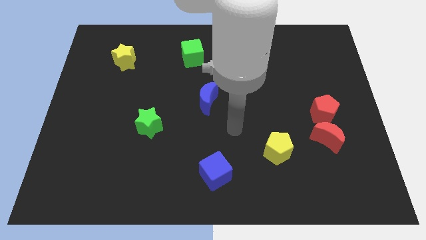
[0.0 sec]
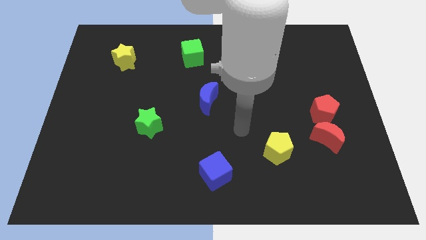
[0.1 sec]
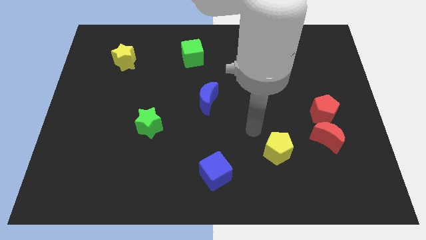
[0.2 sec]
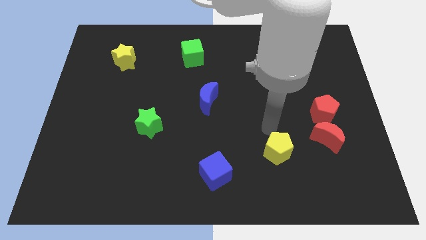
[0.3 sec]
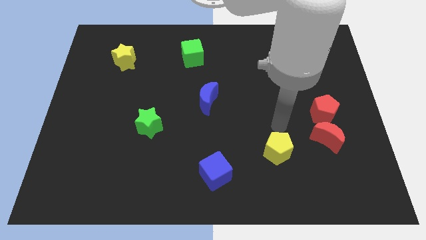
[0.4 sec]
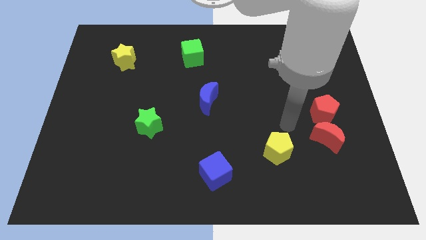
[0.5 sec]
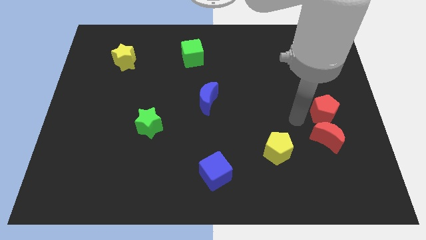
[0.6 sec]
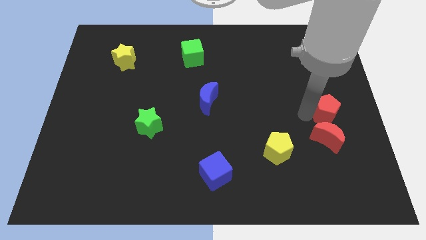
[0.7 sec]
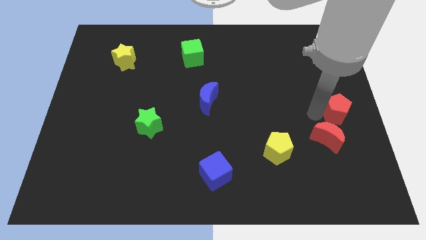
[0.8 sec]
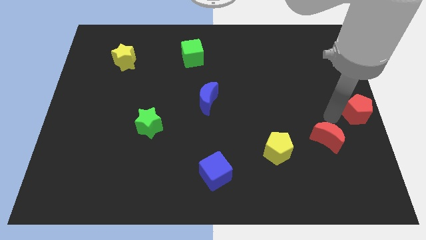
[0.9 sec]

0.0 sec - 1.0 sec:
move the red moon away from the red pentagon

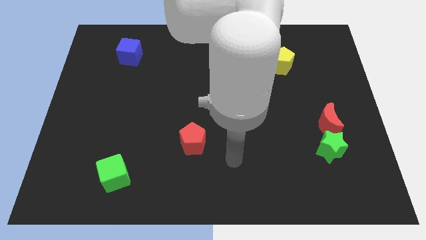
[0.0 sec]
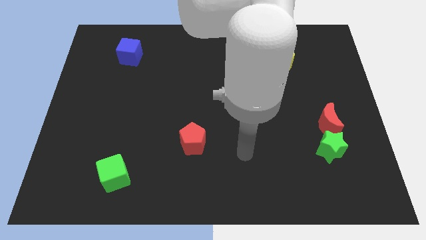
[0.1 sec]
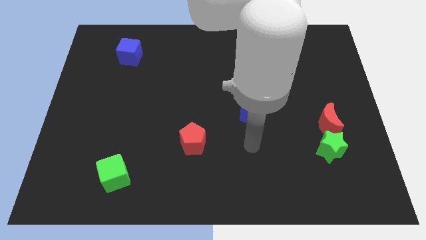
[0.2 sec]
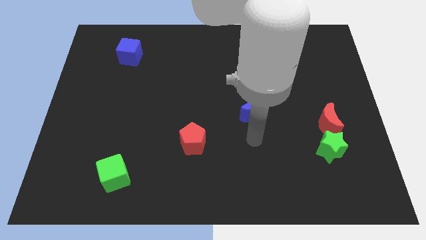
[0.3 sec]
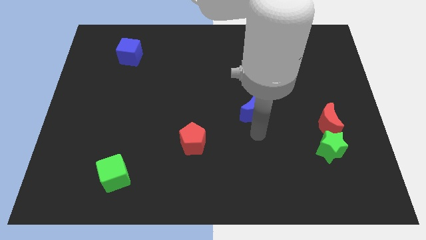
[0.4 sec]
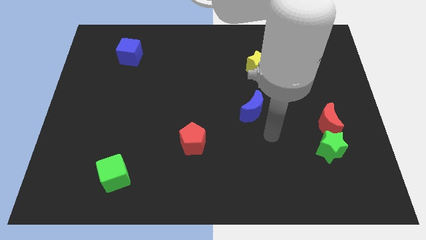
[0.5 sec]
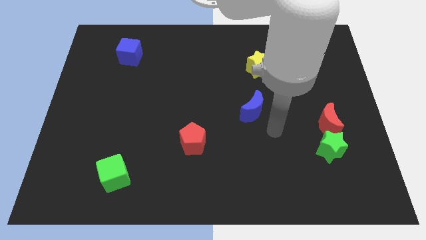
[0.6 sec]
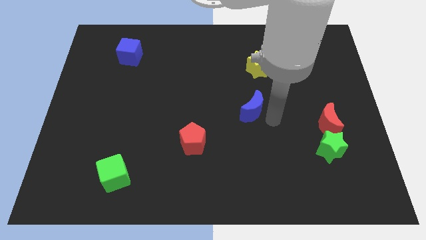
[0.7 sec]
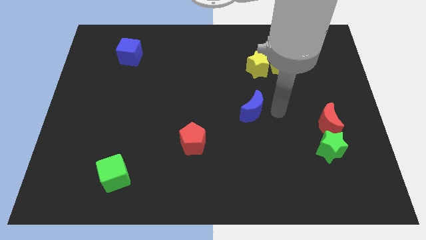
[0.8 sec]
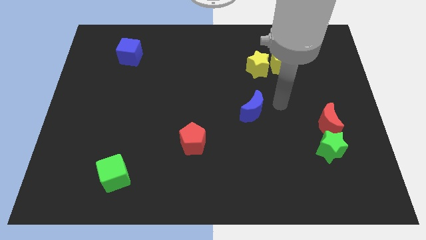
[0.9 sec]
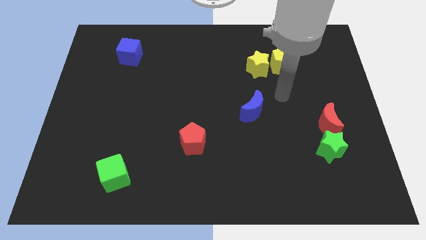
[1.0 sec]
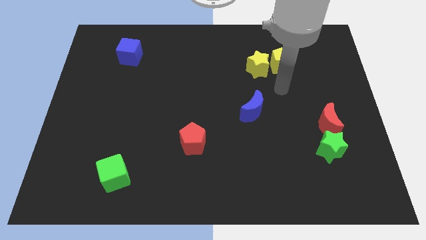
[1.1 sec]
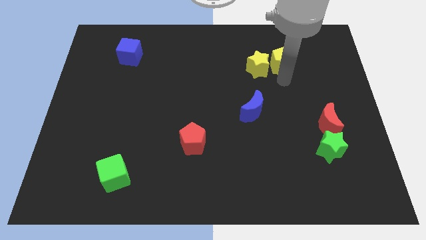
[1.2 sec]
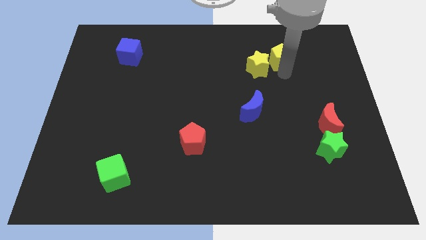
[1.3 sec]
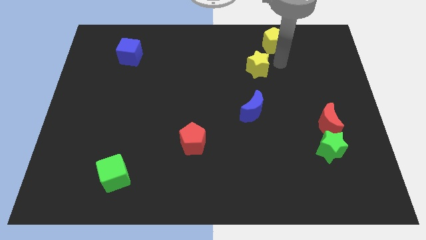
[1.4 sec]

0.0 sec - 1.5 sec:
separate the yellow star from the yellow pentagon

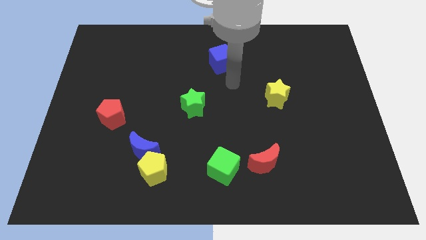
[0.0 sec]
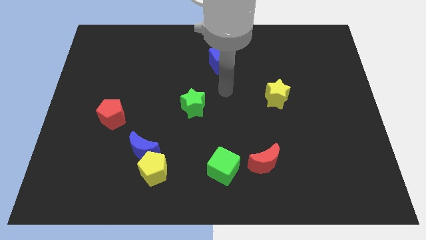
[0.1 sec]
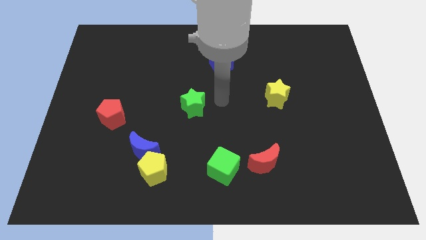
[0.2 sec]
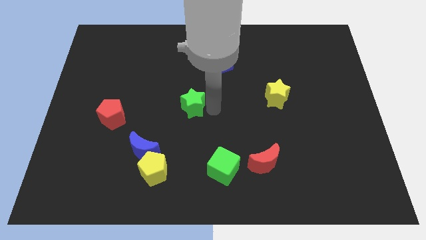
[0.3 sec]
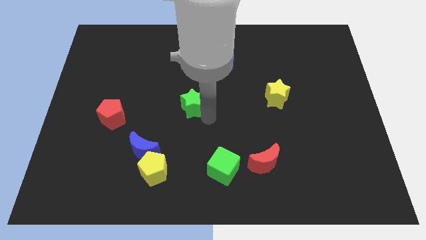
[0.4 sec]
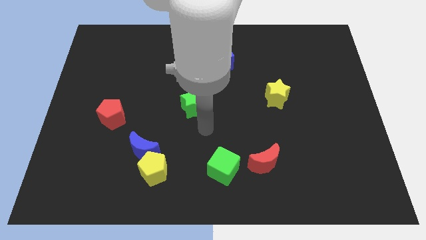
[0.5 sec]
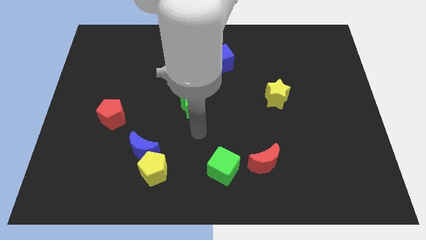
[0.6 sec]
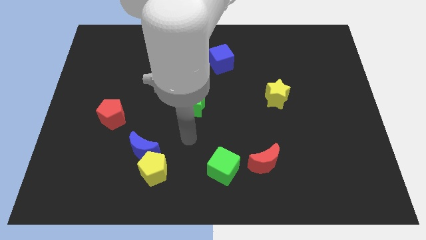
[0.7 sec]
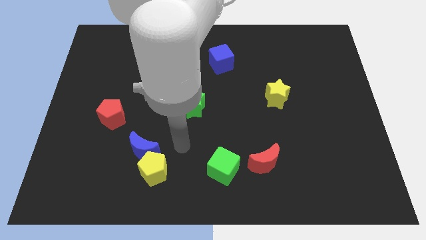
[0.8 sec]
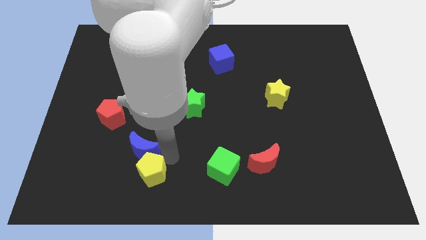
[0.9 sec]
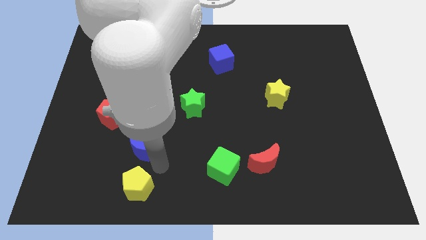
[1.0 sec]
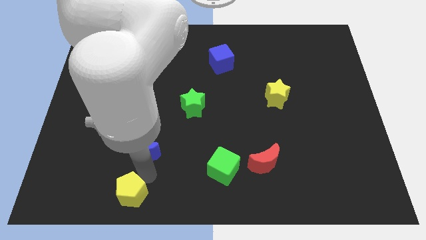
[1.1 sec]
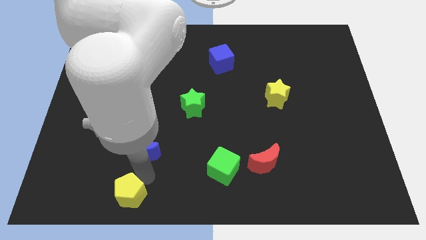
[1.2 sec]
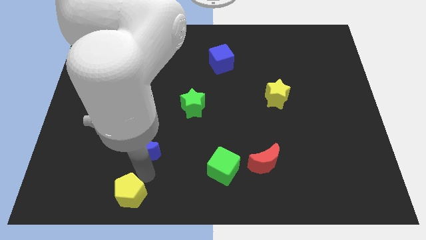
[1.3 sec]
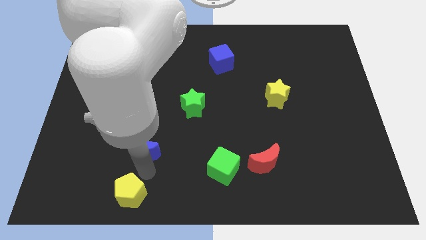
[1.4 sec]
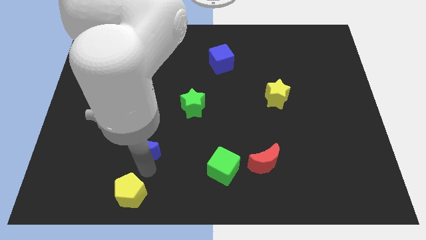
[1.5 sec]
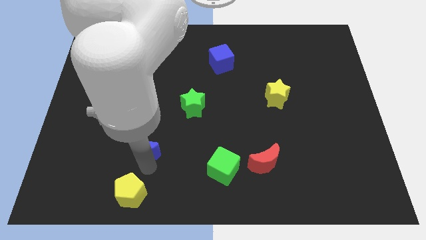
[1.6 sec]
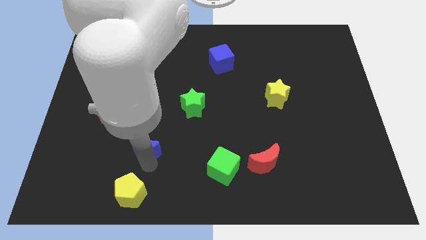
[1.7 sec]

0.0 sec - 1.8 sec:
move the blue moon away from the yellow pentagon

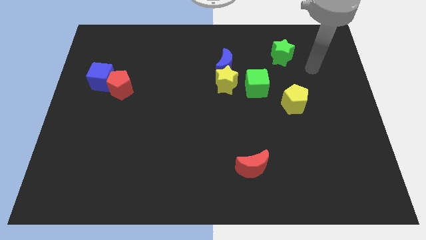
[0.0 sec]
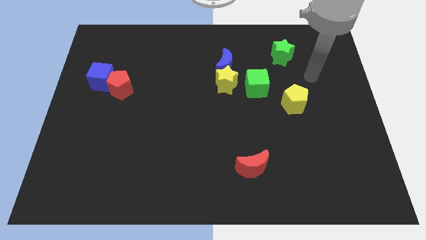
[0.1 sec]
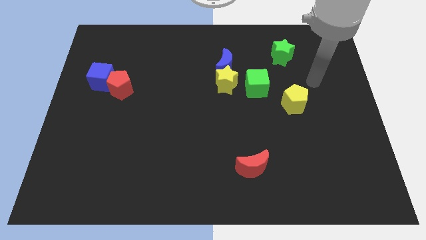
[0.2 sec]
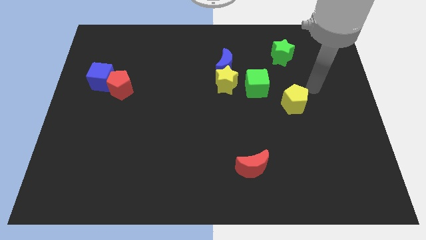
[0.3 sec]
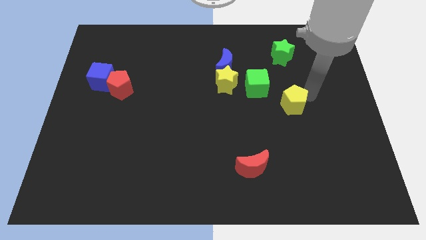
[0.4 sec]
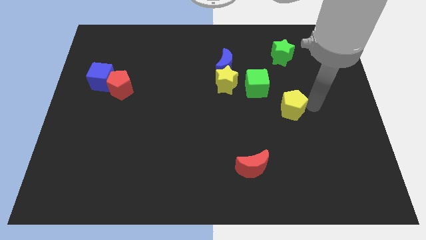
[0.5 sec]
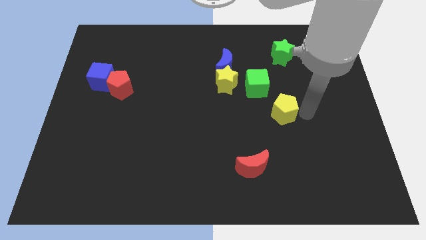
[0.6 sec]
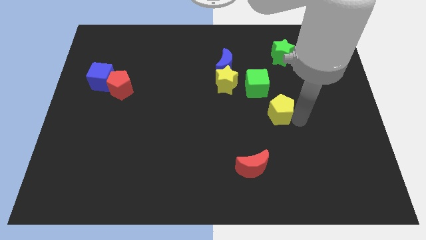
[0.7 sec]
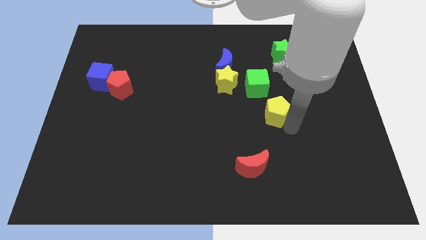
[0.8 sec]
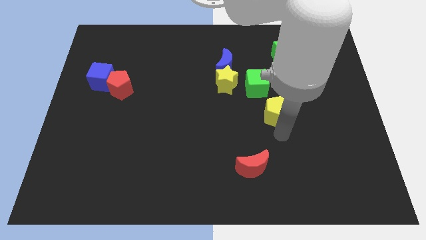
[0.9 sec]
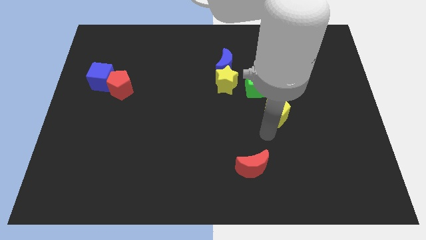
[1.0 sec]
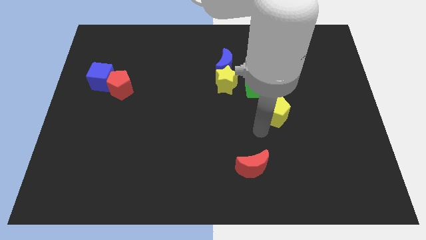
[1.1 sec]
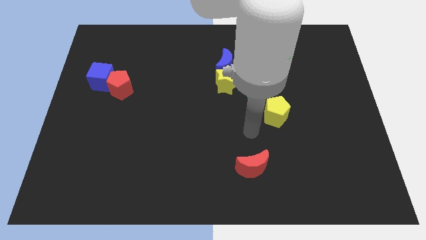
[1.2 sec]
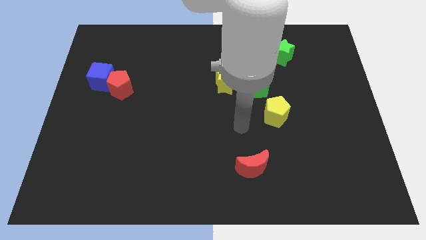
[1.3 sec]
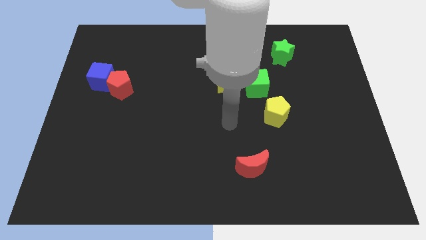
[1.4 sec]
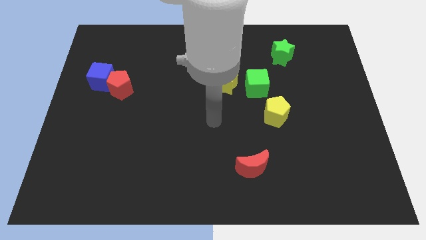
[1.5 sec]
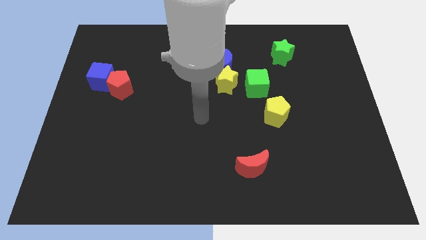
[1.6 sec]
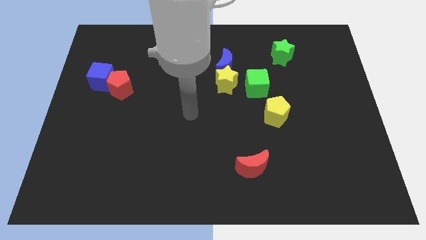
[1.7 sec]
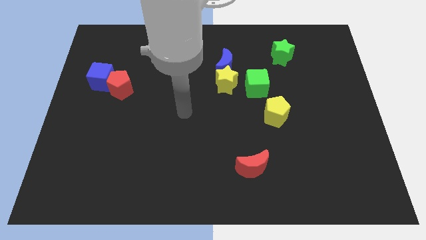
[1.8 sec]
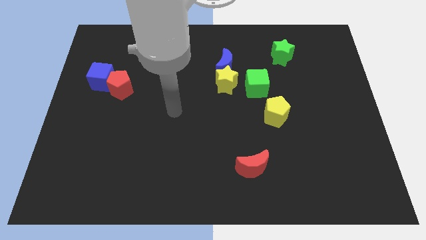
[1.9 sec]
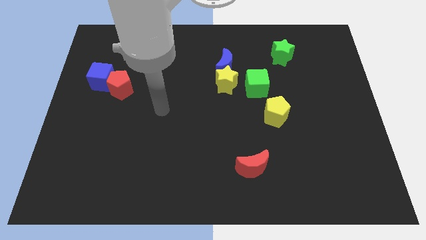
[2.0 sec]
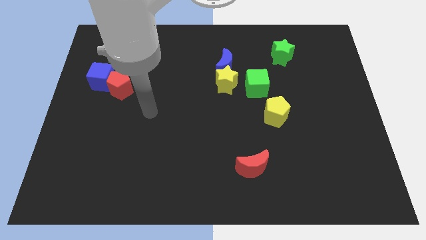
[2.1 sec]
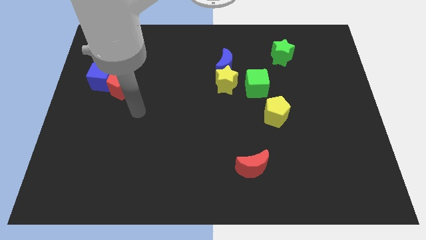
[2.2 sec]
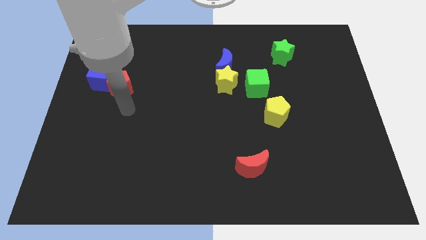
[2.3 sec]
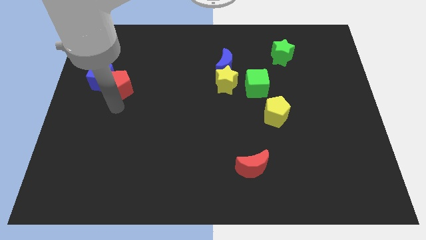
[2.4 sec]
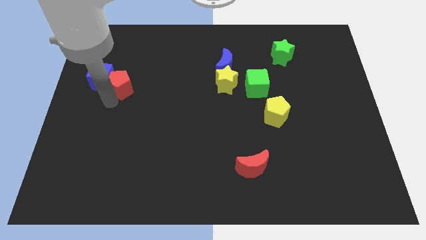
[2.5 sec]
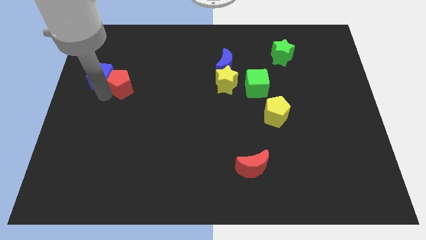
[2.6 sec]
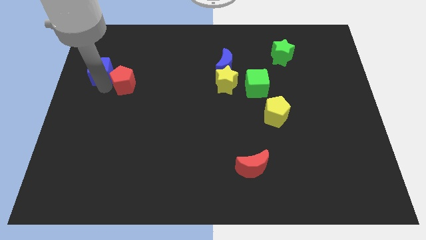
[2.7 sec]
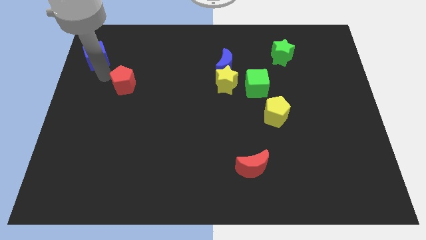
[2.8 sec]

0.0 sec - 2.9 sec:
separate the red pentagon from the blue cube

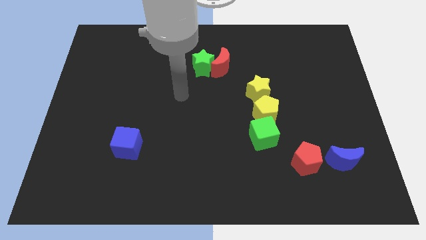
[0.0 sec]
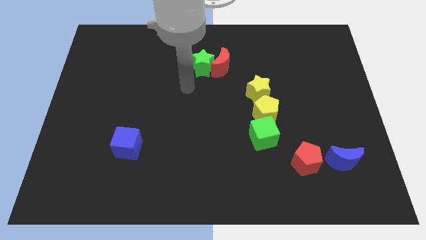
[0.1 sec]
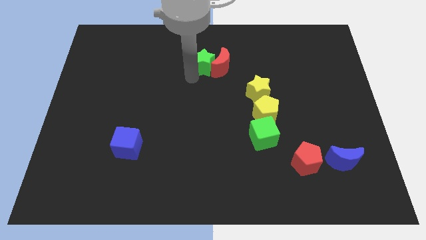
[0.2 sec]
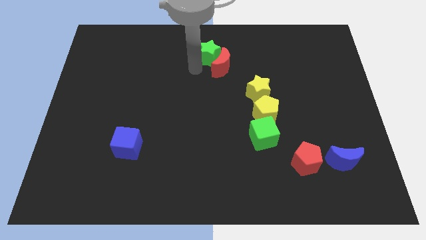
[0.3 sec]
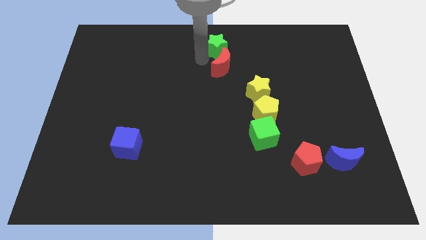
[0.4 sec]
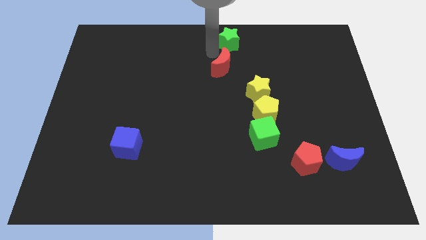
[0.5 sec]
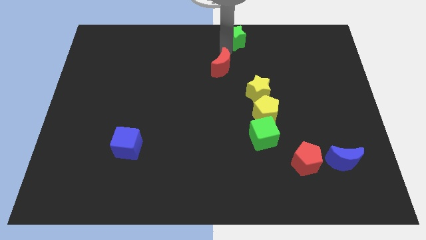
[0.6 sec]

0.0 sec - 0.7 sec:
pull the red moon apart from the green star

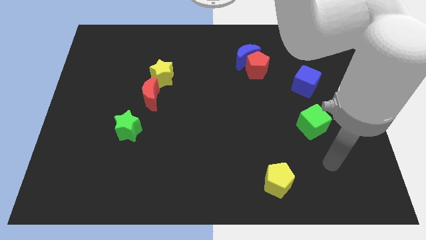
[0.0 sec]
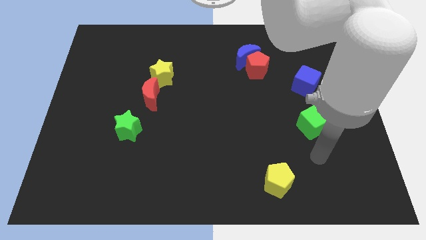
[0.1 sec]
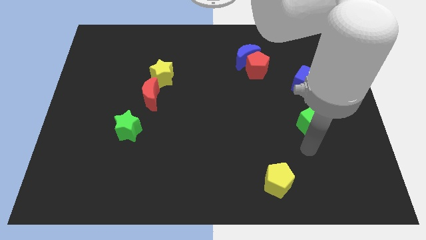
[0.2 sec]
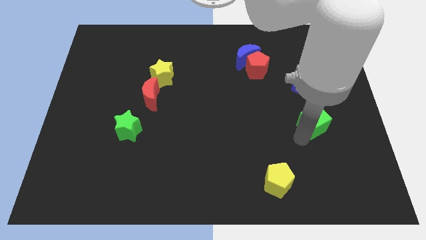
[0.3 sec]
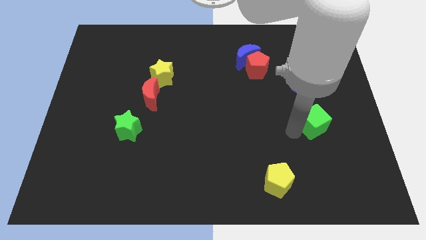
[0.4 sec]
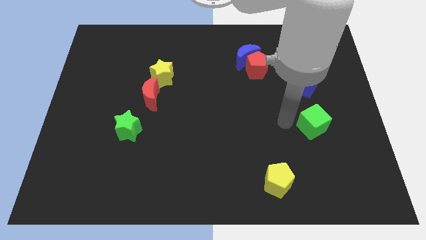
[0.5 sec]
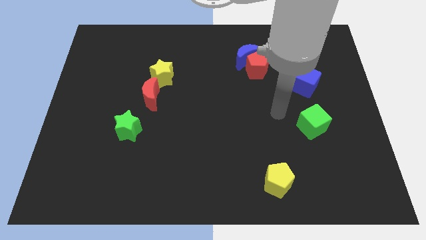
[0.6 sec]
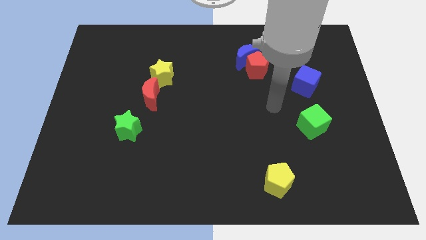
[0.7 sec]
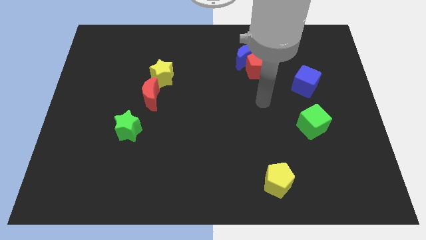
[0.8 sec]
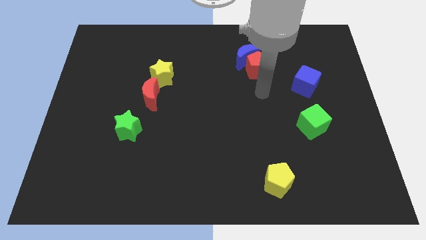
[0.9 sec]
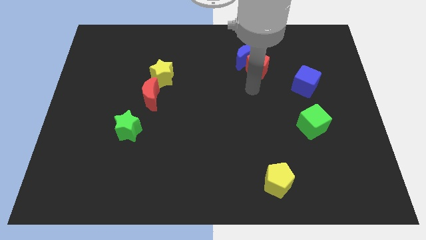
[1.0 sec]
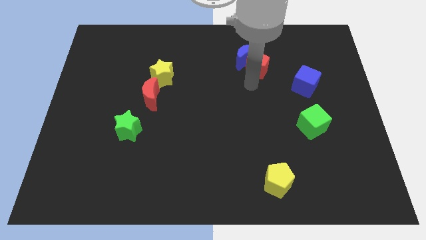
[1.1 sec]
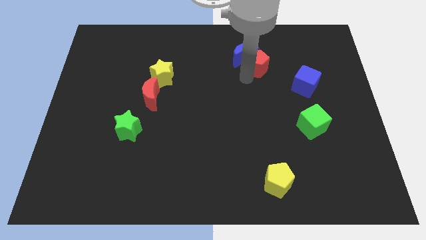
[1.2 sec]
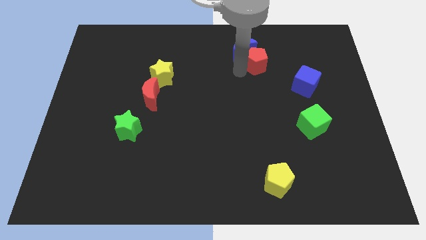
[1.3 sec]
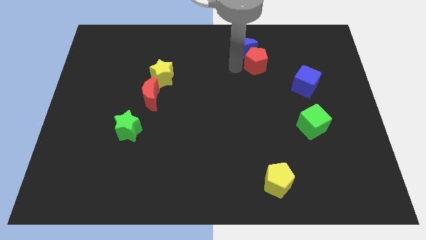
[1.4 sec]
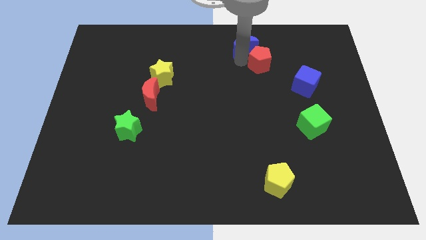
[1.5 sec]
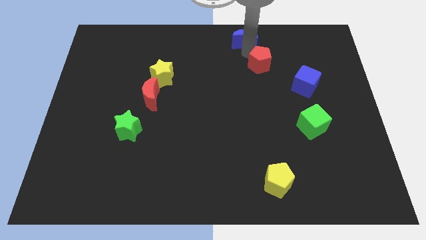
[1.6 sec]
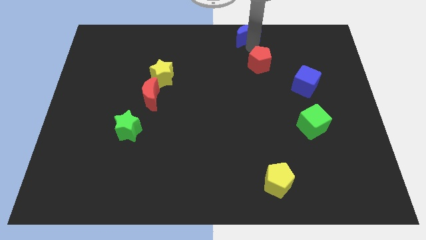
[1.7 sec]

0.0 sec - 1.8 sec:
separate the red pentagon from the blue moon
